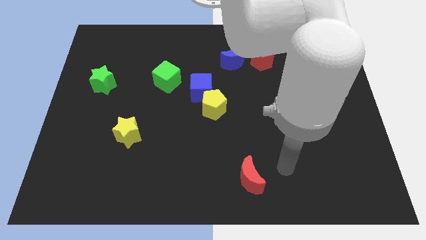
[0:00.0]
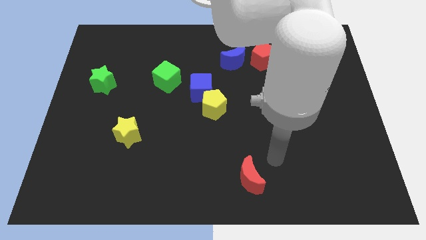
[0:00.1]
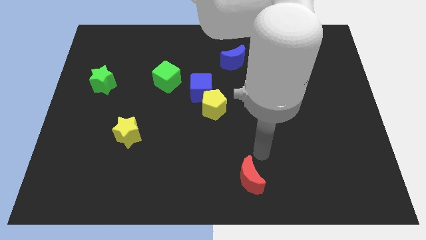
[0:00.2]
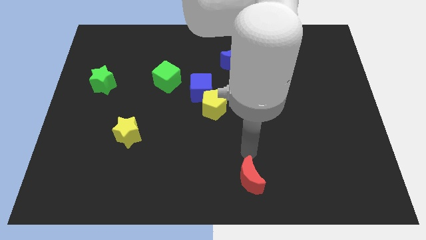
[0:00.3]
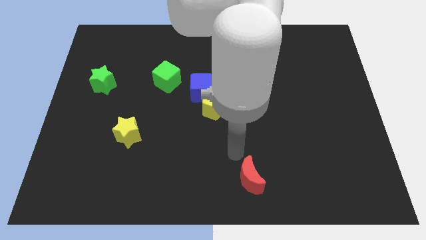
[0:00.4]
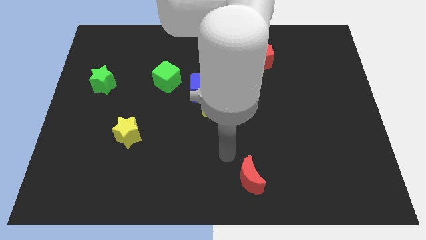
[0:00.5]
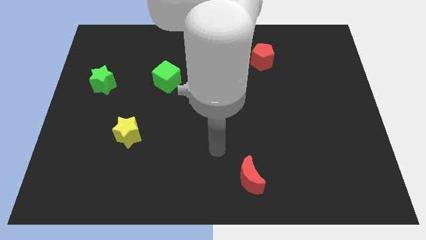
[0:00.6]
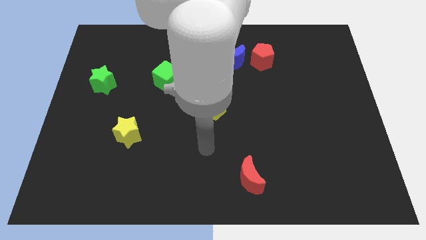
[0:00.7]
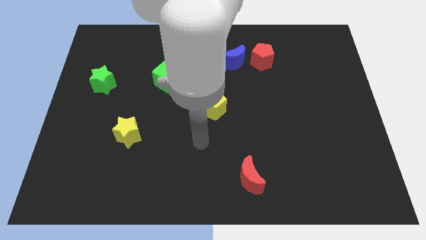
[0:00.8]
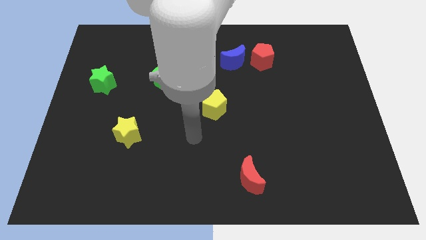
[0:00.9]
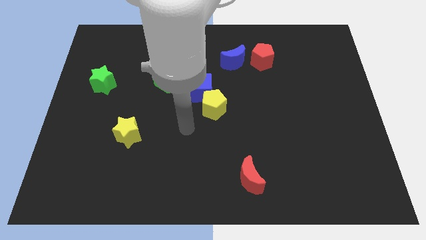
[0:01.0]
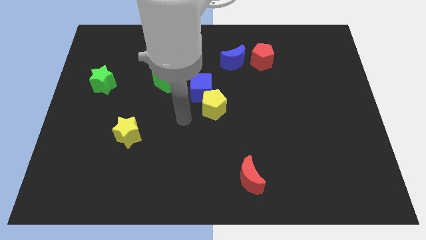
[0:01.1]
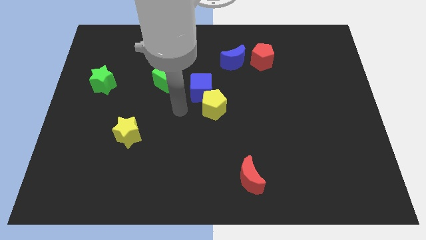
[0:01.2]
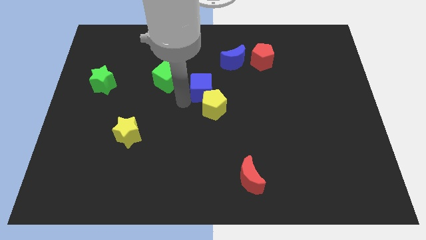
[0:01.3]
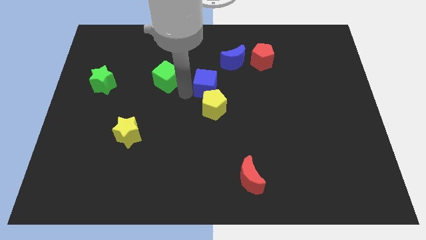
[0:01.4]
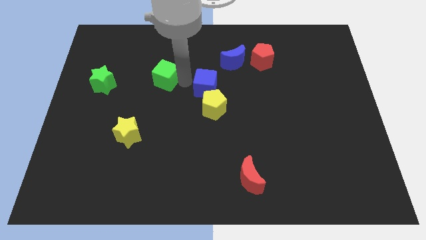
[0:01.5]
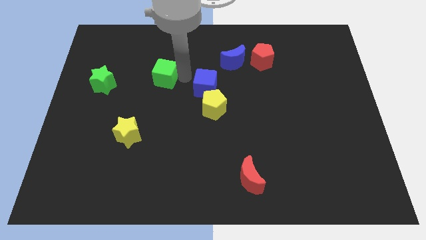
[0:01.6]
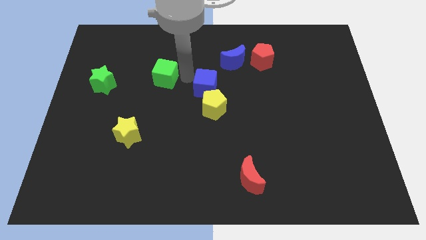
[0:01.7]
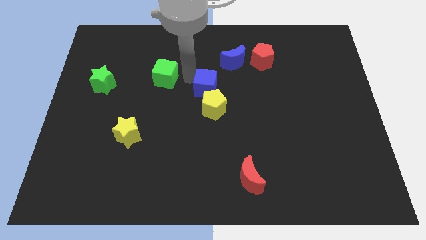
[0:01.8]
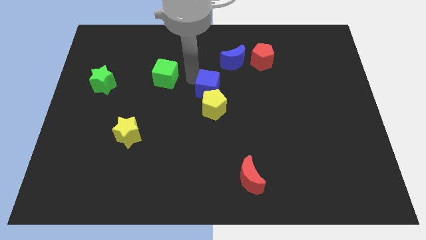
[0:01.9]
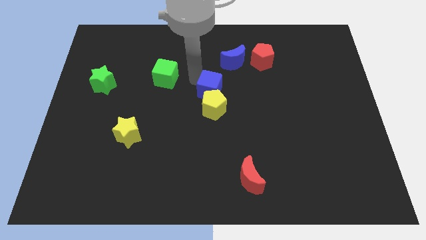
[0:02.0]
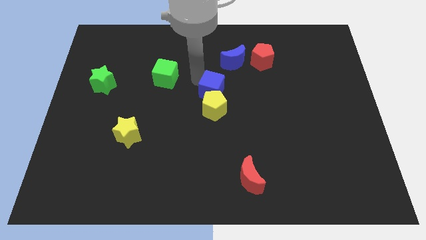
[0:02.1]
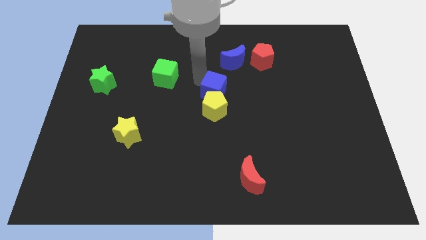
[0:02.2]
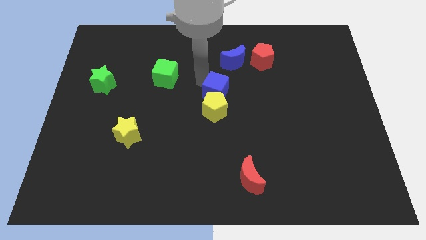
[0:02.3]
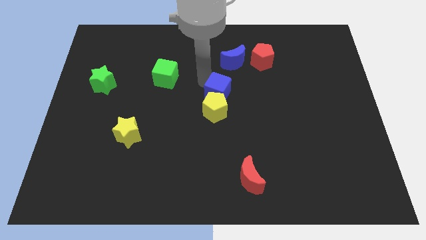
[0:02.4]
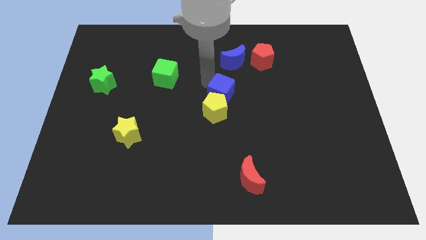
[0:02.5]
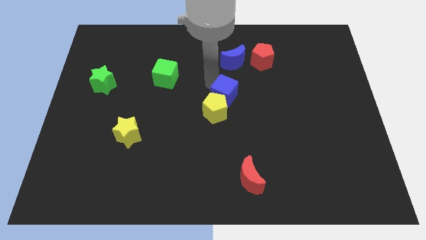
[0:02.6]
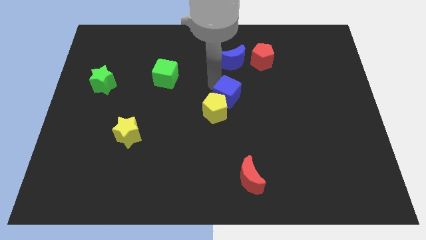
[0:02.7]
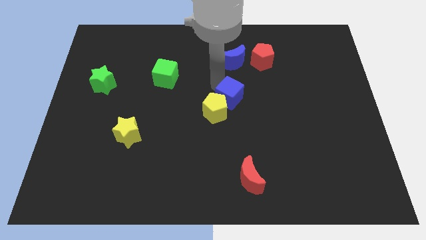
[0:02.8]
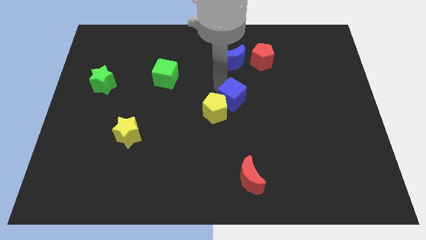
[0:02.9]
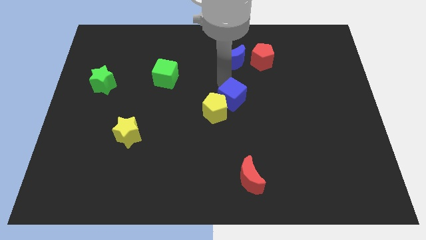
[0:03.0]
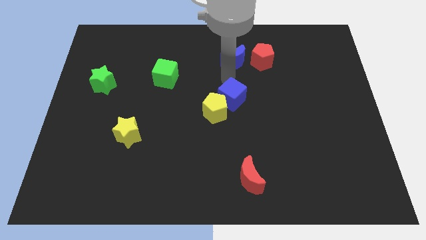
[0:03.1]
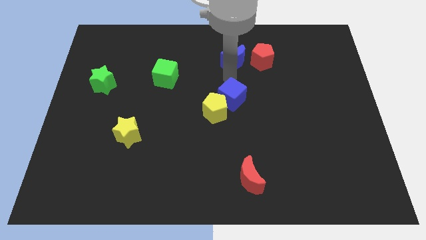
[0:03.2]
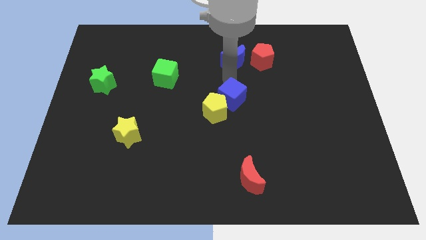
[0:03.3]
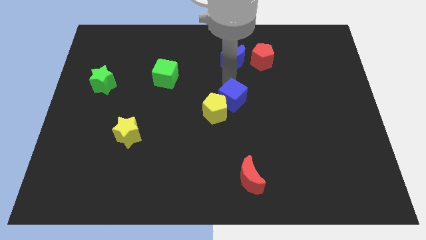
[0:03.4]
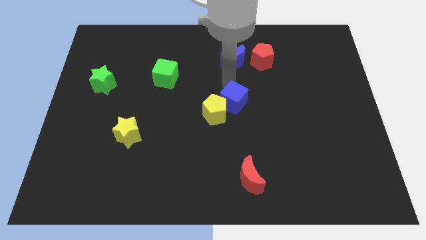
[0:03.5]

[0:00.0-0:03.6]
slide the blue cube downwards and right diagonally a little

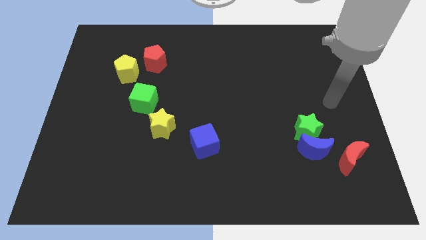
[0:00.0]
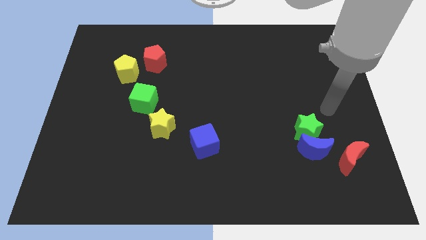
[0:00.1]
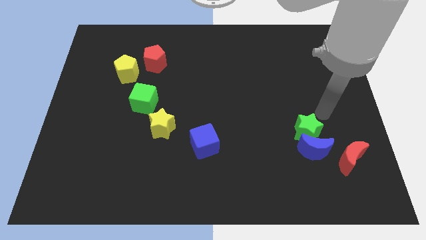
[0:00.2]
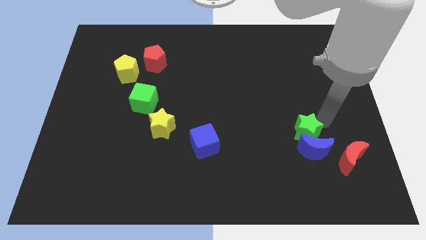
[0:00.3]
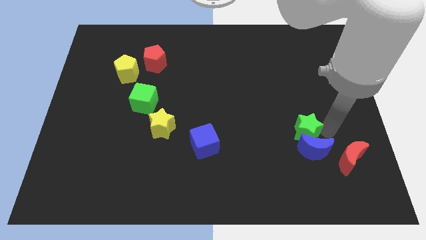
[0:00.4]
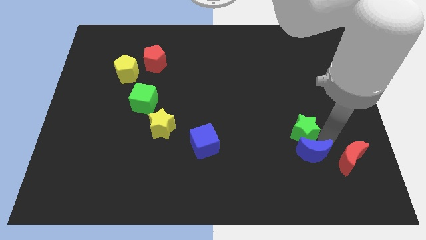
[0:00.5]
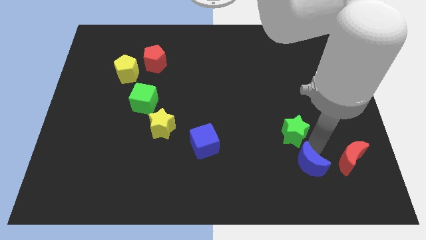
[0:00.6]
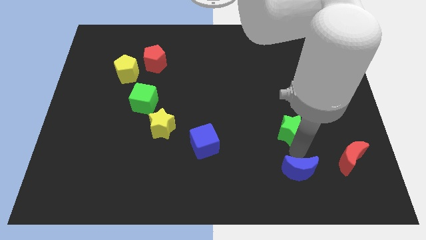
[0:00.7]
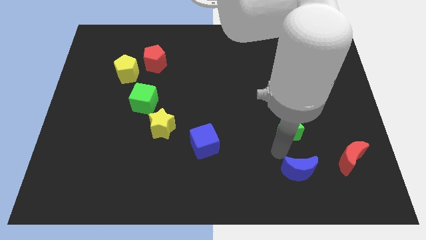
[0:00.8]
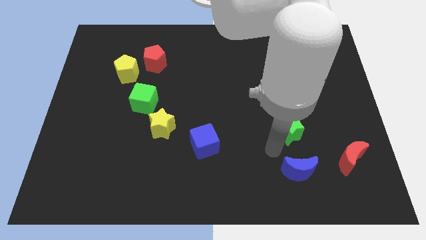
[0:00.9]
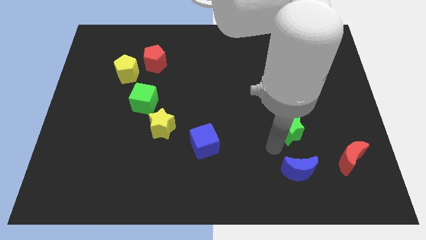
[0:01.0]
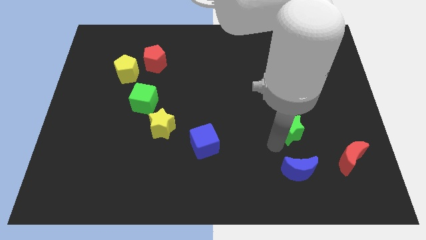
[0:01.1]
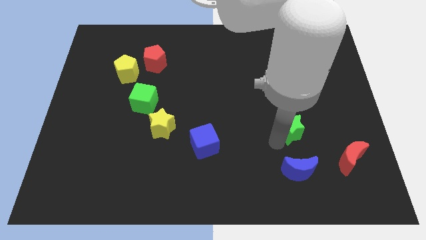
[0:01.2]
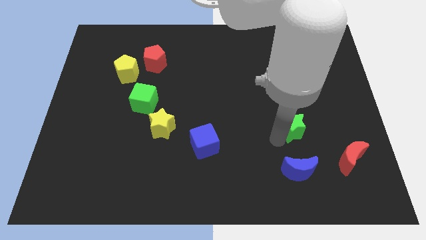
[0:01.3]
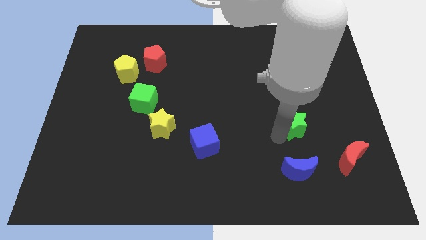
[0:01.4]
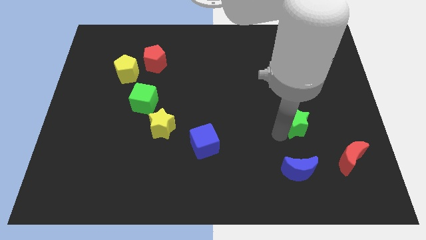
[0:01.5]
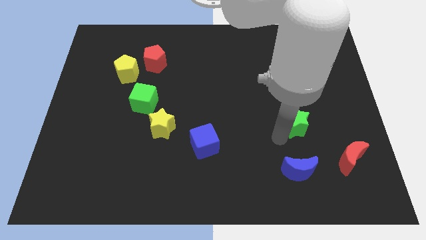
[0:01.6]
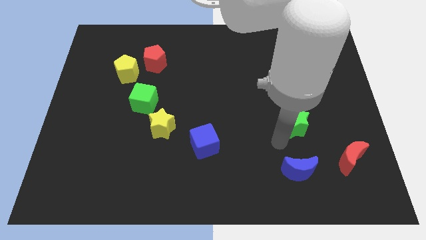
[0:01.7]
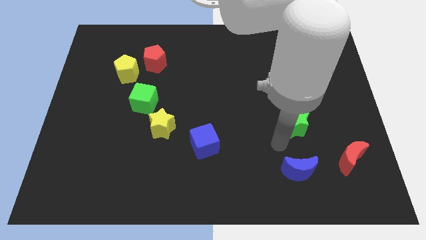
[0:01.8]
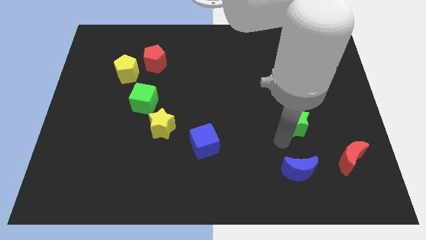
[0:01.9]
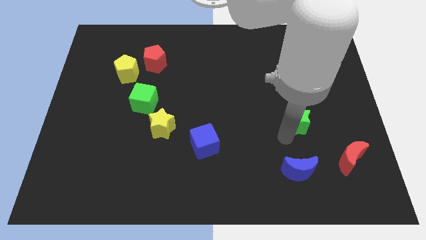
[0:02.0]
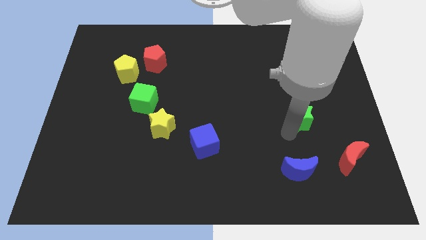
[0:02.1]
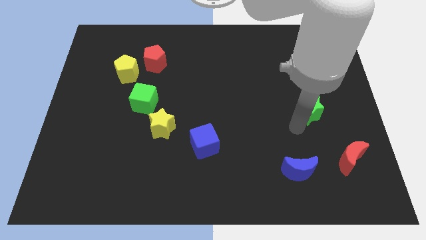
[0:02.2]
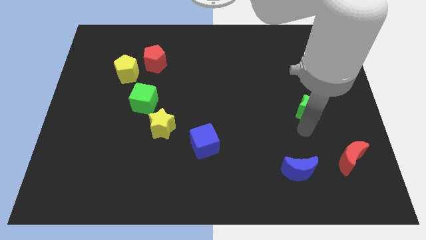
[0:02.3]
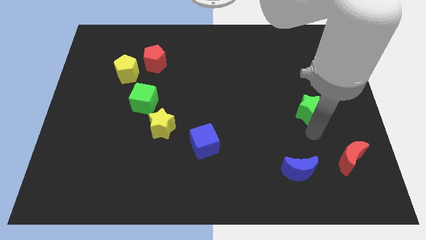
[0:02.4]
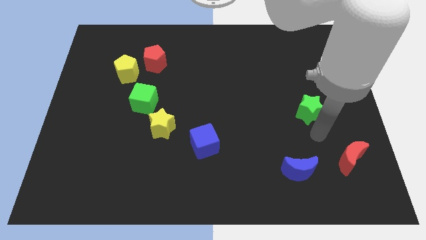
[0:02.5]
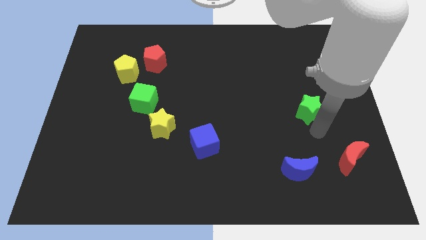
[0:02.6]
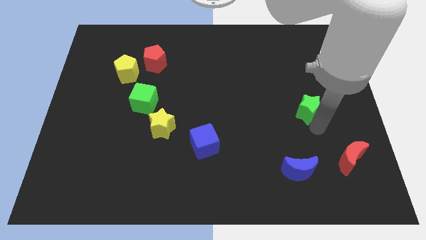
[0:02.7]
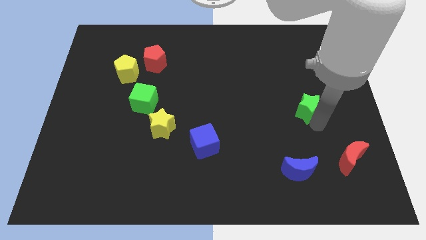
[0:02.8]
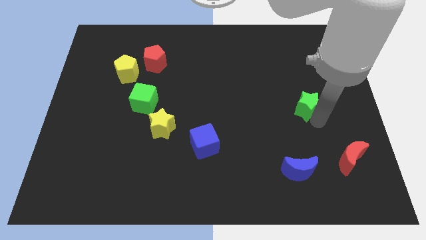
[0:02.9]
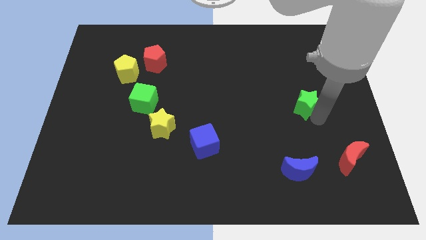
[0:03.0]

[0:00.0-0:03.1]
slightly slide the green star upwards

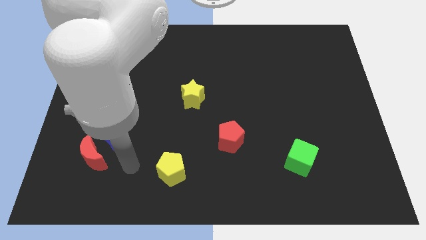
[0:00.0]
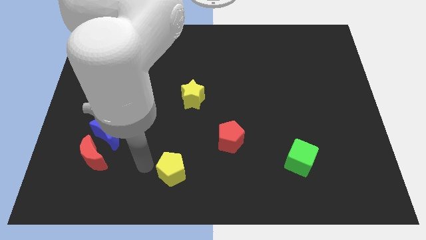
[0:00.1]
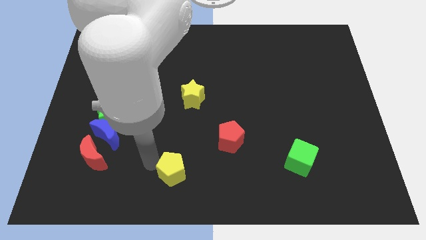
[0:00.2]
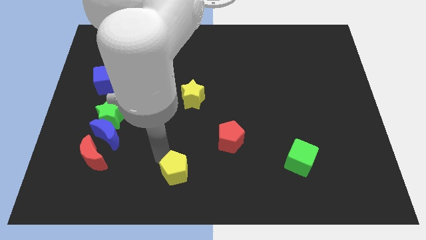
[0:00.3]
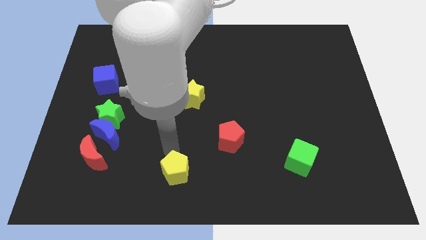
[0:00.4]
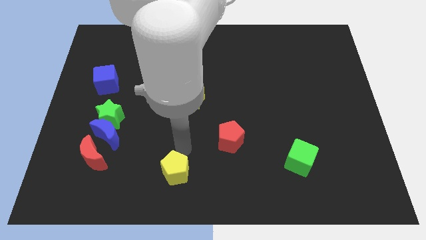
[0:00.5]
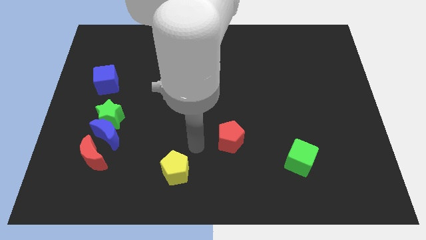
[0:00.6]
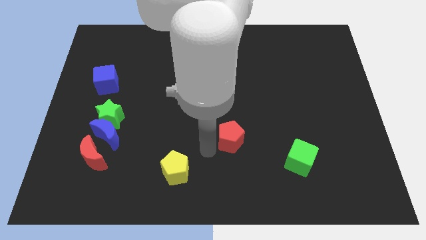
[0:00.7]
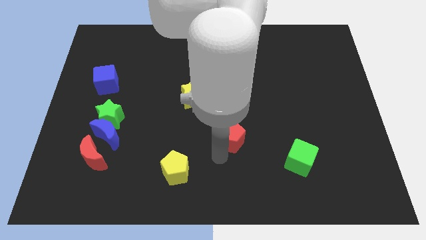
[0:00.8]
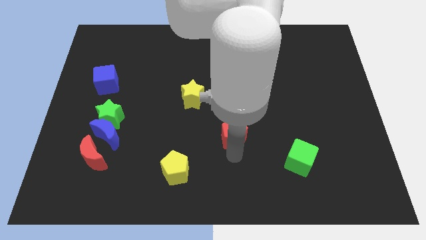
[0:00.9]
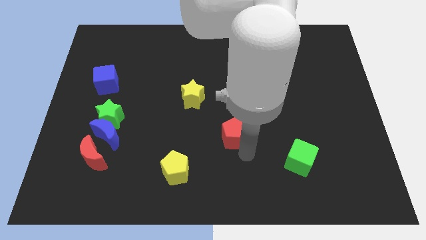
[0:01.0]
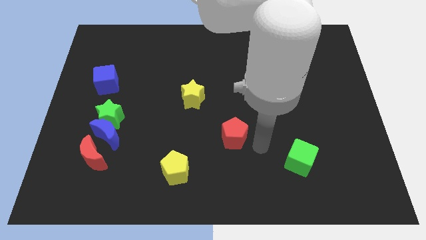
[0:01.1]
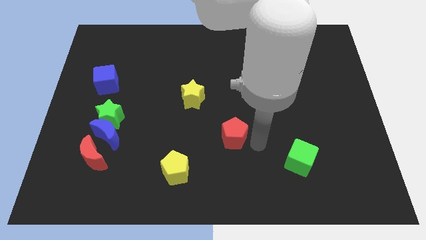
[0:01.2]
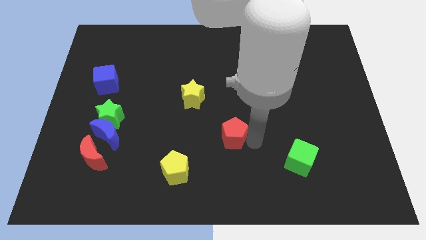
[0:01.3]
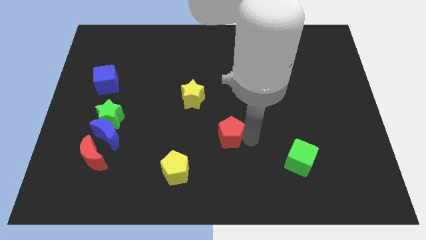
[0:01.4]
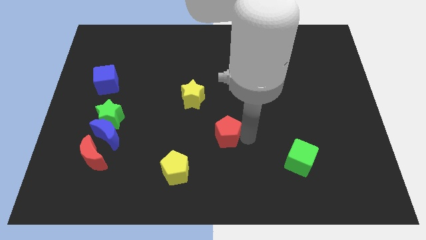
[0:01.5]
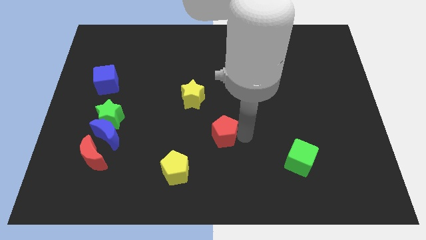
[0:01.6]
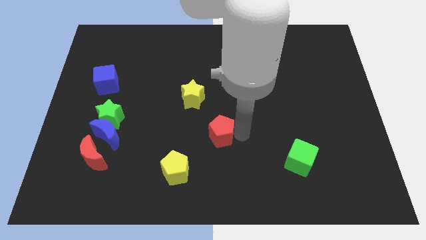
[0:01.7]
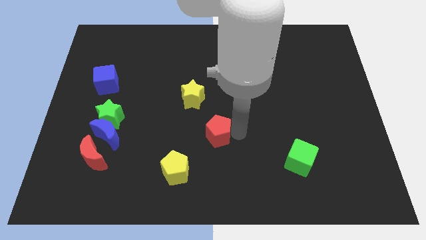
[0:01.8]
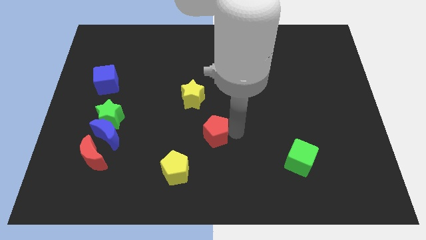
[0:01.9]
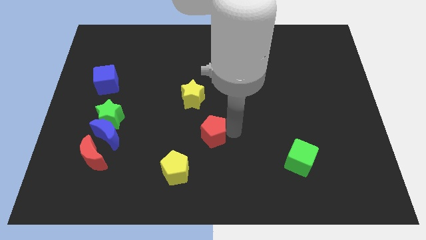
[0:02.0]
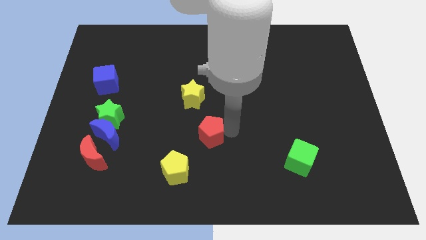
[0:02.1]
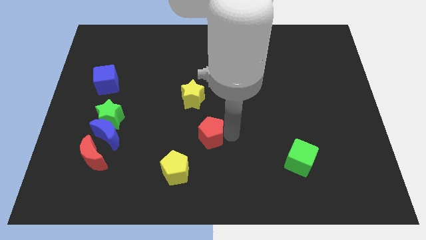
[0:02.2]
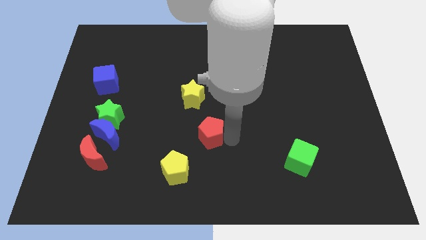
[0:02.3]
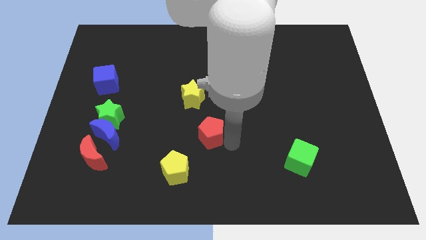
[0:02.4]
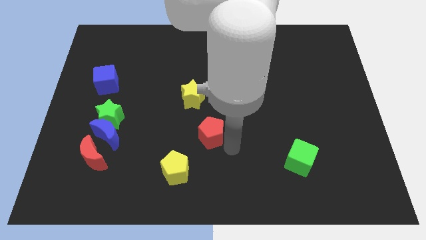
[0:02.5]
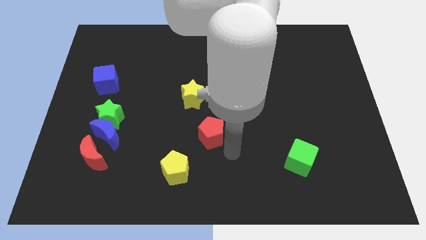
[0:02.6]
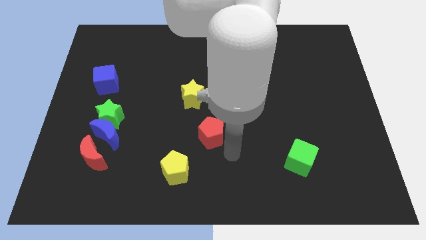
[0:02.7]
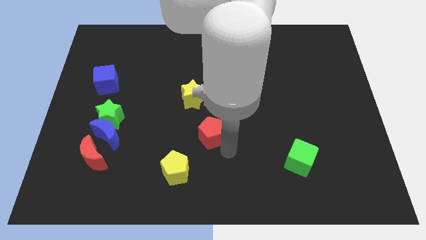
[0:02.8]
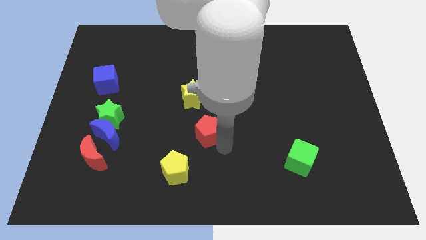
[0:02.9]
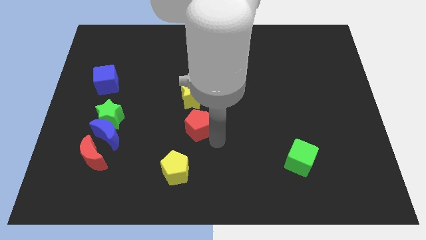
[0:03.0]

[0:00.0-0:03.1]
move the red pentagon upwards and to the left slightly
